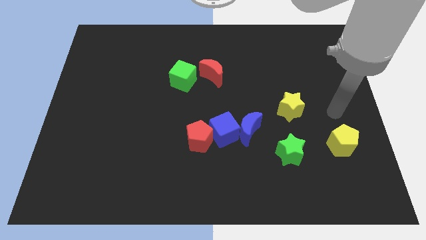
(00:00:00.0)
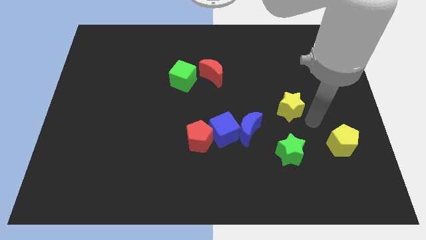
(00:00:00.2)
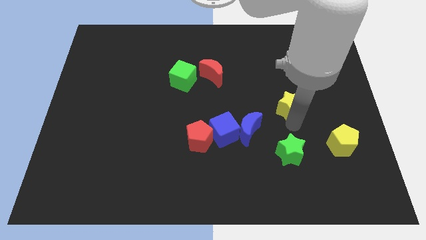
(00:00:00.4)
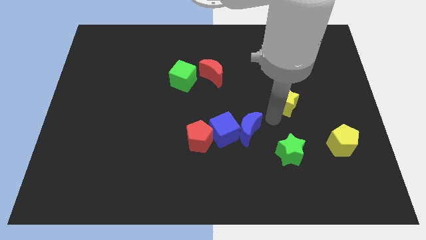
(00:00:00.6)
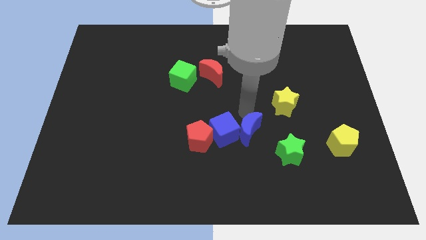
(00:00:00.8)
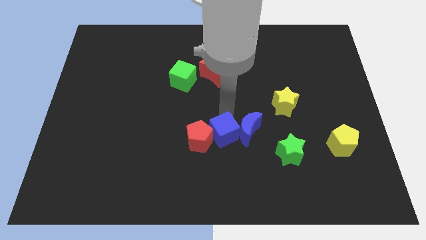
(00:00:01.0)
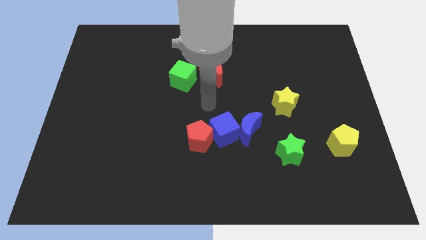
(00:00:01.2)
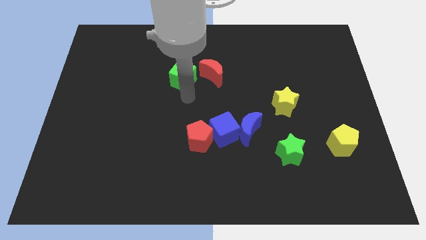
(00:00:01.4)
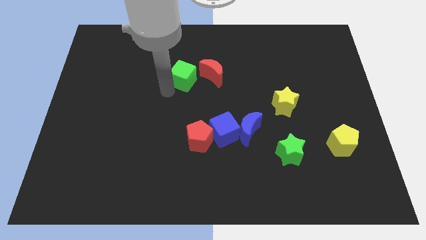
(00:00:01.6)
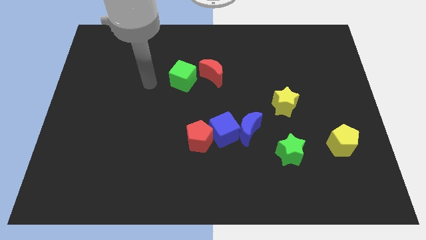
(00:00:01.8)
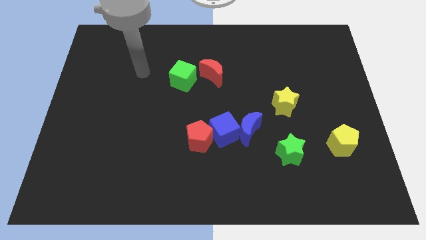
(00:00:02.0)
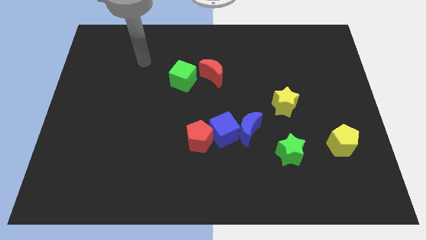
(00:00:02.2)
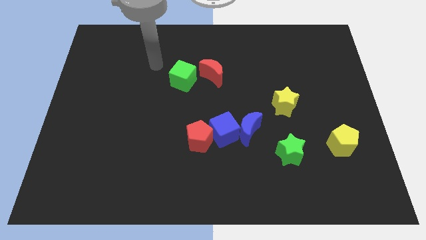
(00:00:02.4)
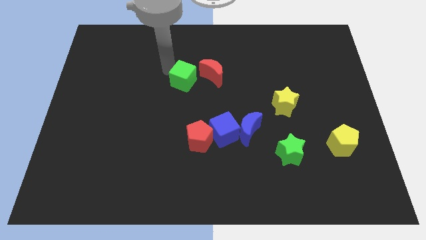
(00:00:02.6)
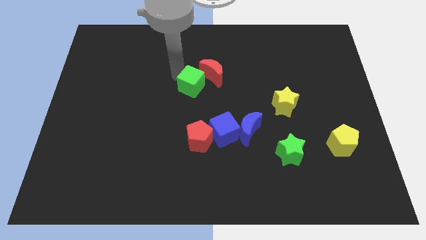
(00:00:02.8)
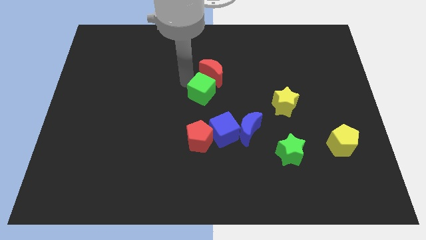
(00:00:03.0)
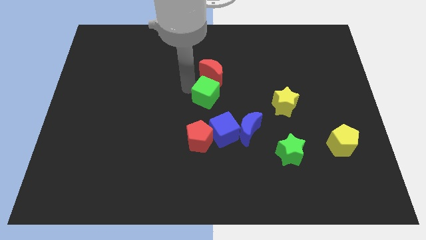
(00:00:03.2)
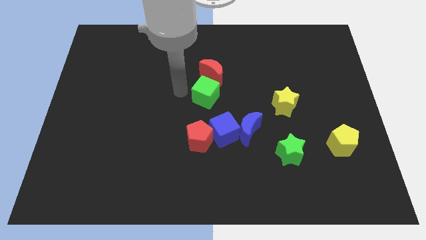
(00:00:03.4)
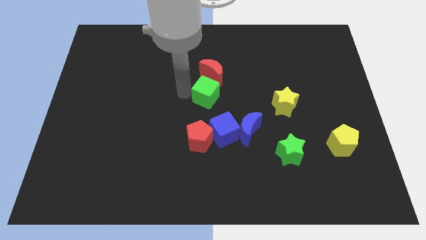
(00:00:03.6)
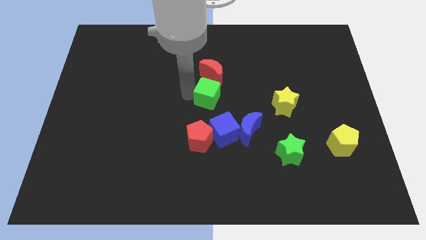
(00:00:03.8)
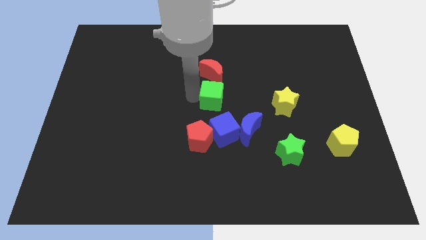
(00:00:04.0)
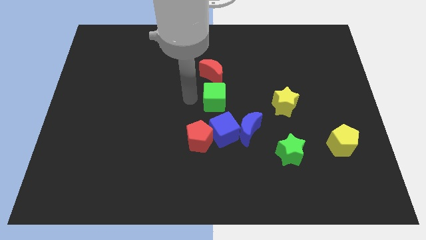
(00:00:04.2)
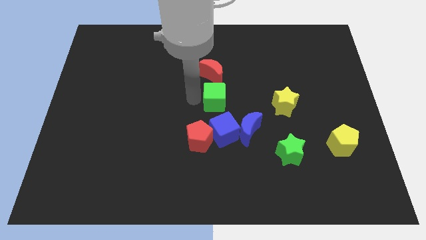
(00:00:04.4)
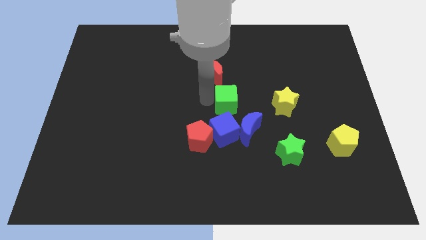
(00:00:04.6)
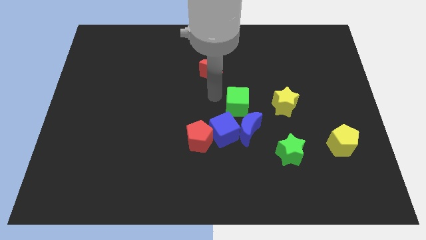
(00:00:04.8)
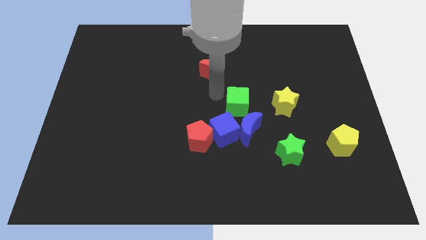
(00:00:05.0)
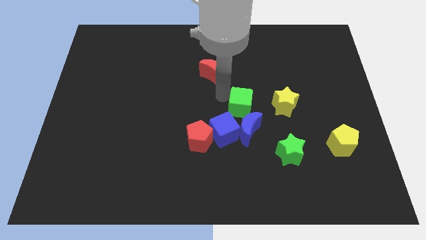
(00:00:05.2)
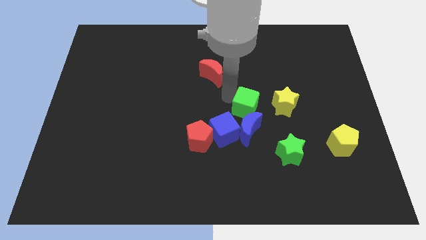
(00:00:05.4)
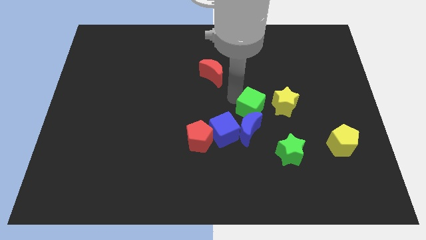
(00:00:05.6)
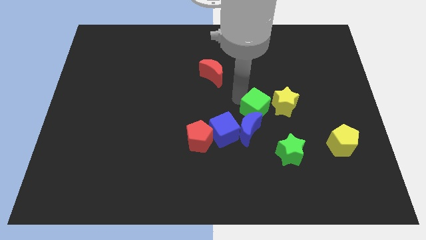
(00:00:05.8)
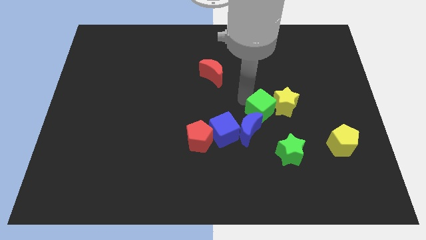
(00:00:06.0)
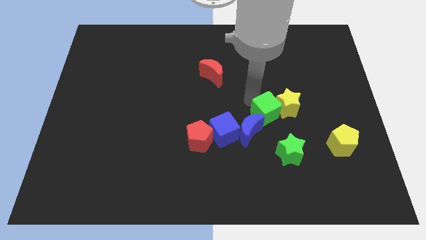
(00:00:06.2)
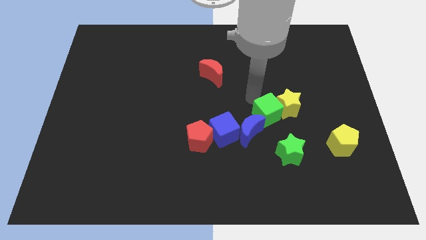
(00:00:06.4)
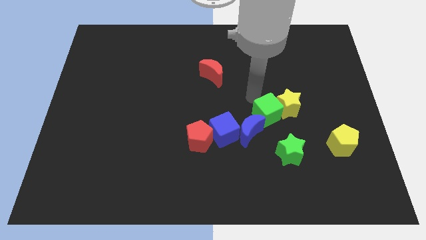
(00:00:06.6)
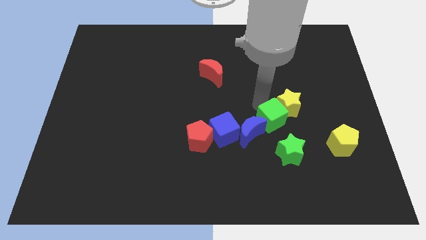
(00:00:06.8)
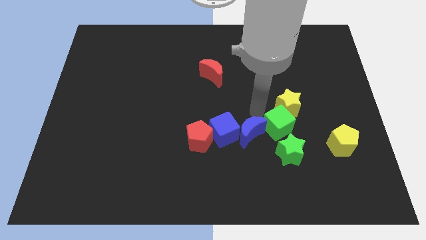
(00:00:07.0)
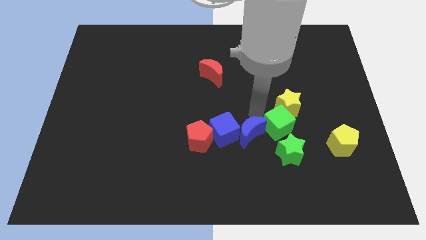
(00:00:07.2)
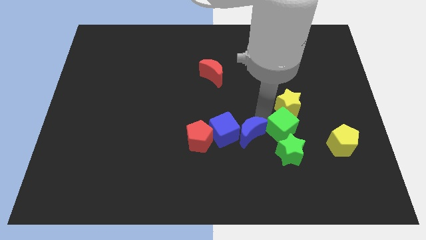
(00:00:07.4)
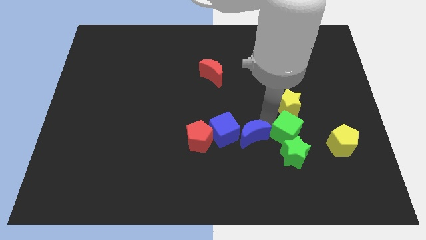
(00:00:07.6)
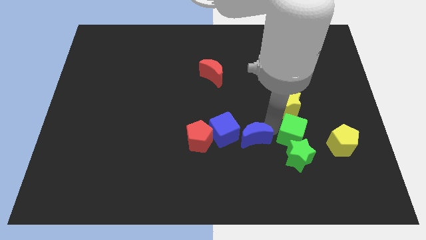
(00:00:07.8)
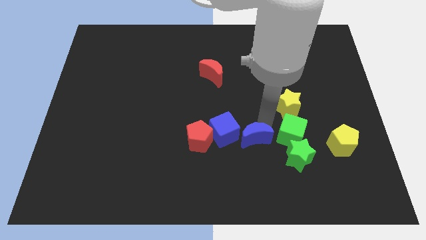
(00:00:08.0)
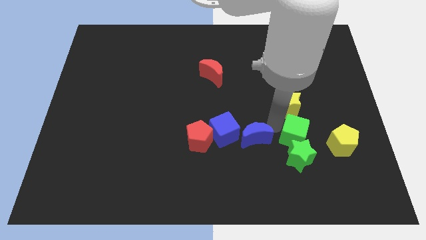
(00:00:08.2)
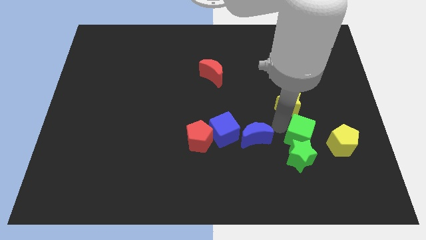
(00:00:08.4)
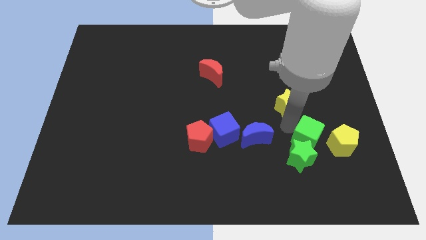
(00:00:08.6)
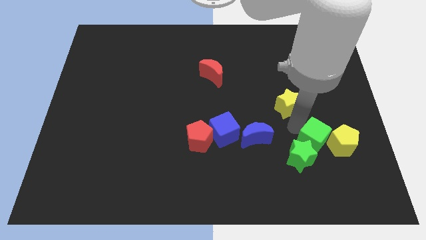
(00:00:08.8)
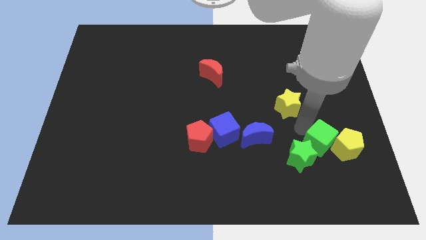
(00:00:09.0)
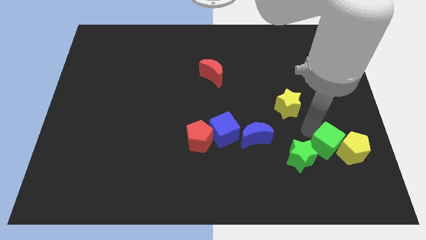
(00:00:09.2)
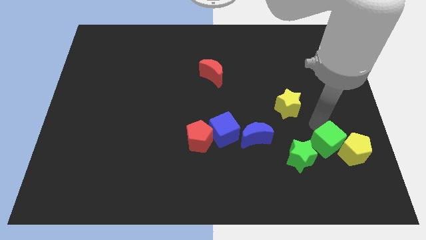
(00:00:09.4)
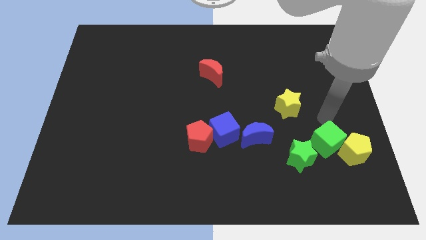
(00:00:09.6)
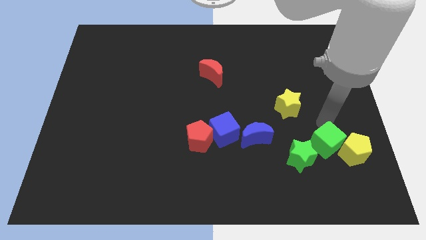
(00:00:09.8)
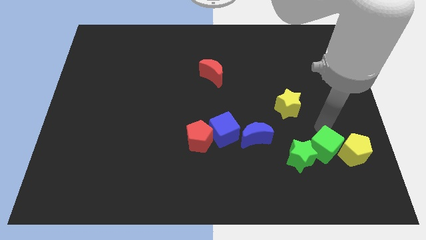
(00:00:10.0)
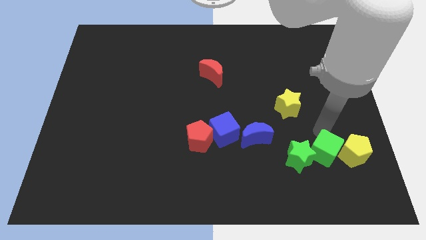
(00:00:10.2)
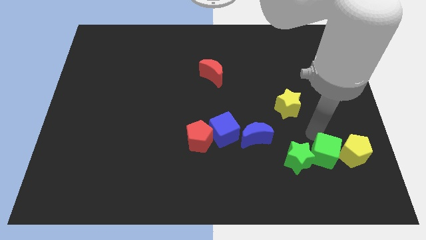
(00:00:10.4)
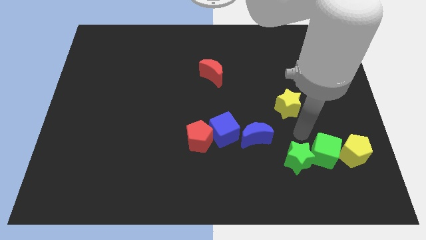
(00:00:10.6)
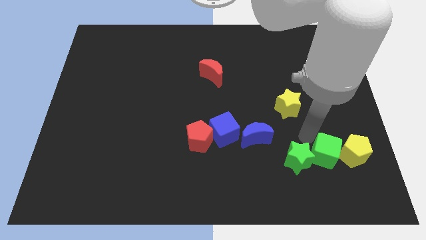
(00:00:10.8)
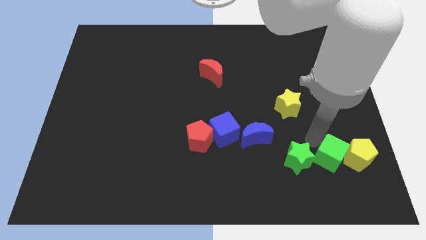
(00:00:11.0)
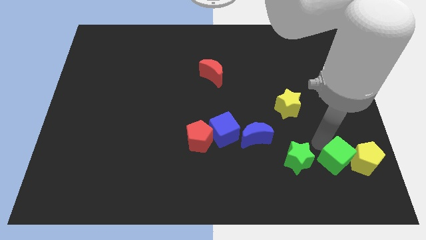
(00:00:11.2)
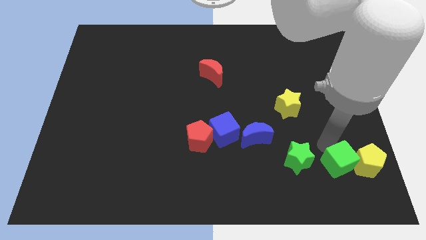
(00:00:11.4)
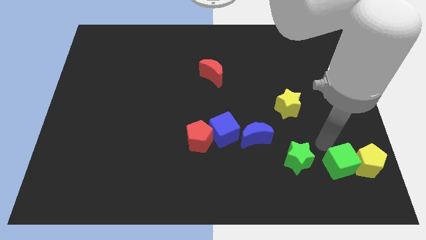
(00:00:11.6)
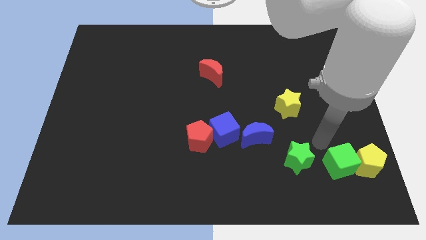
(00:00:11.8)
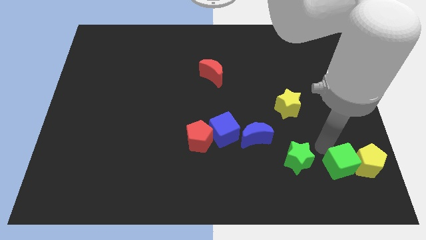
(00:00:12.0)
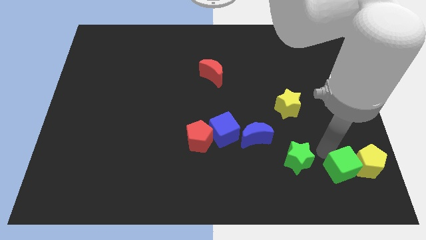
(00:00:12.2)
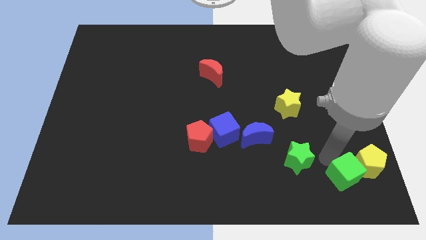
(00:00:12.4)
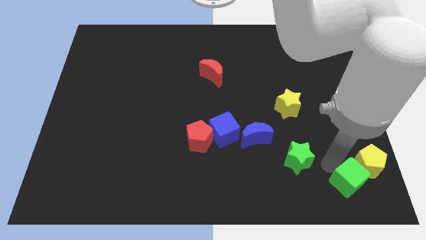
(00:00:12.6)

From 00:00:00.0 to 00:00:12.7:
move the green cube to the lower right corner
